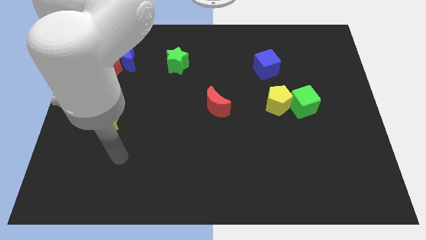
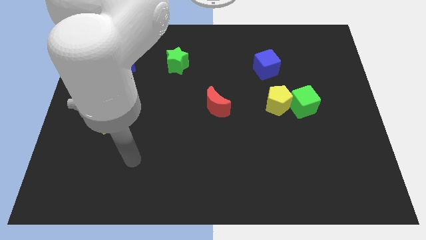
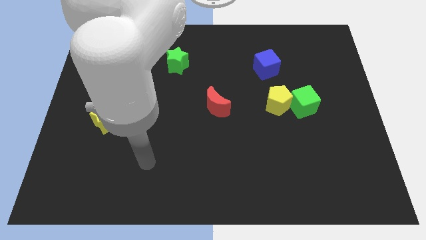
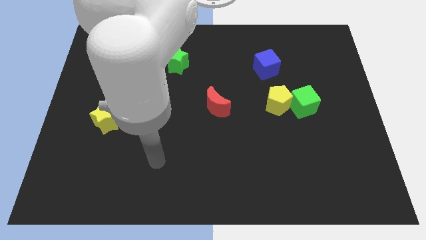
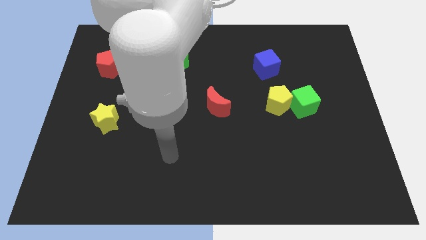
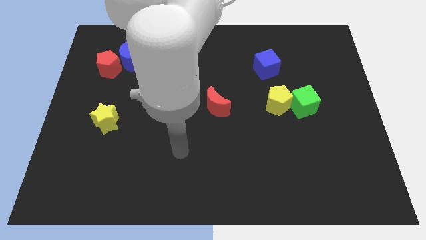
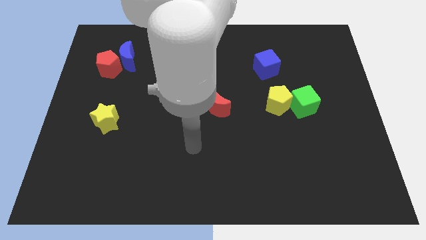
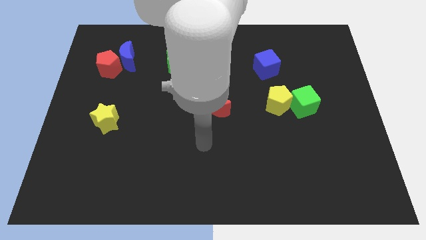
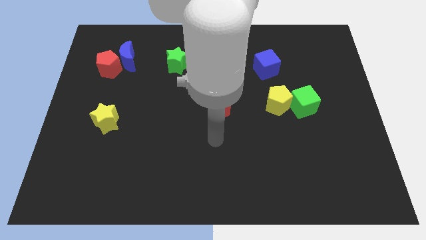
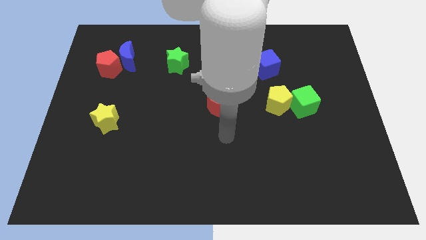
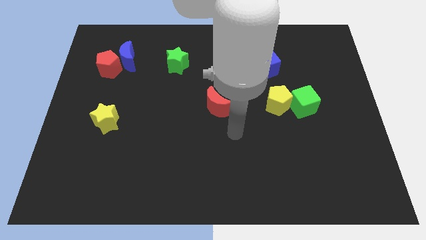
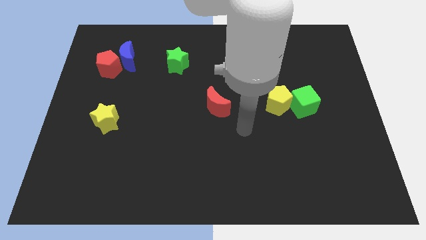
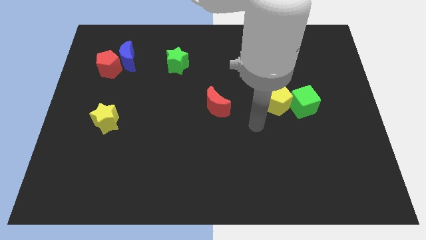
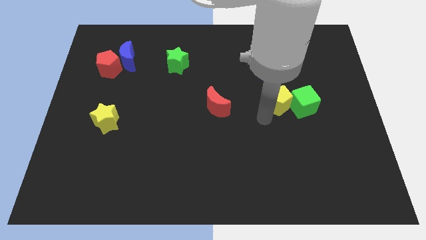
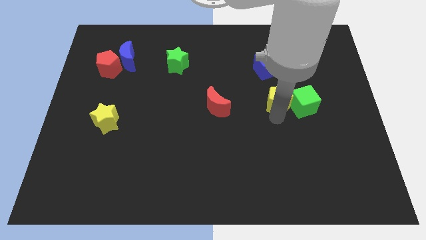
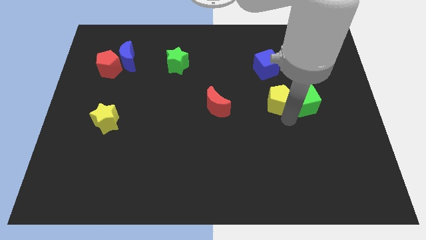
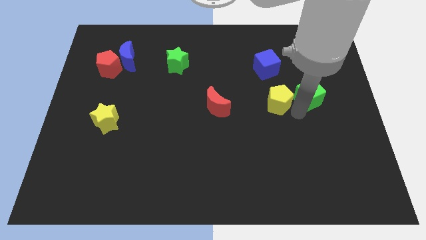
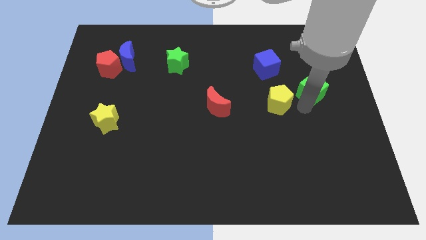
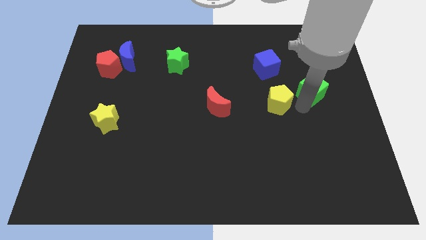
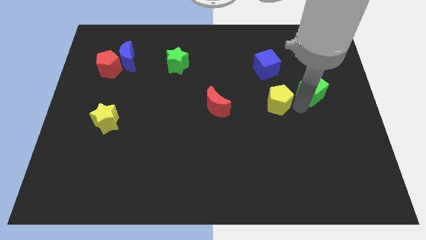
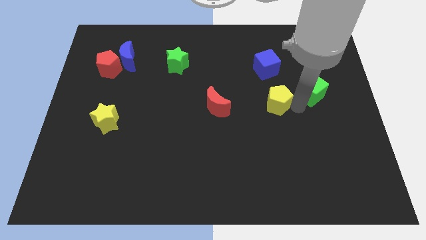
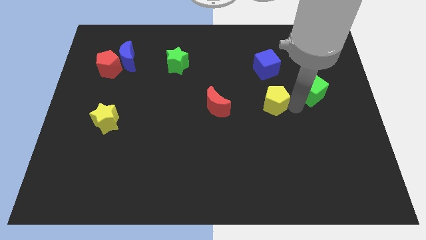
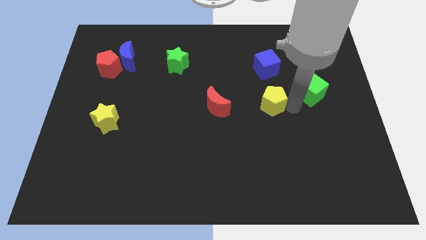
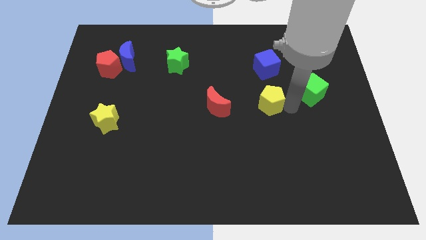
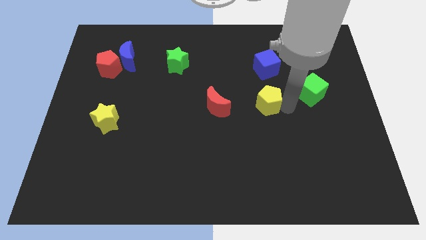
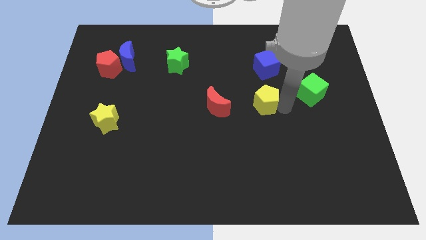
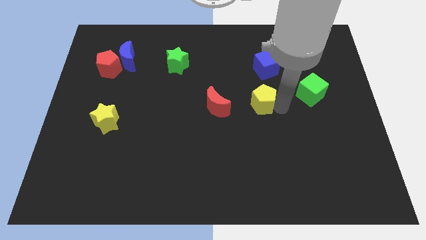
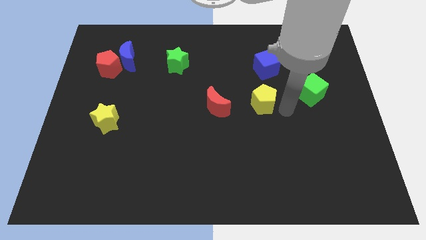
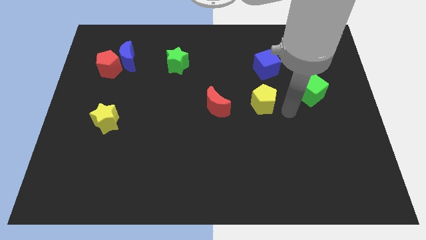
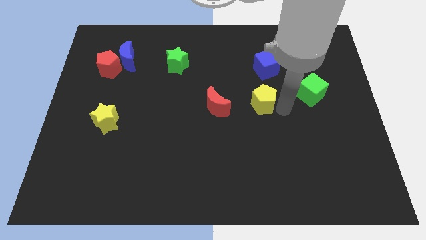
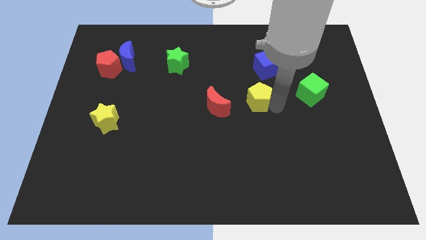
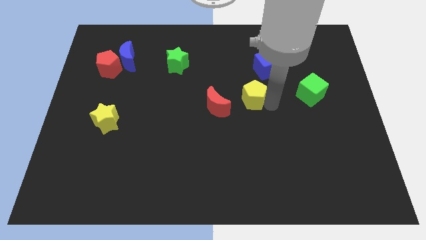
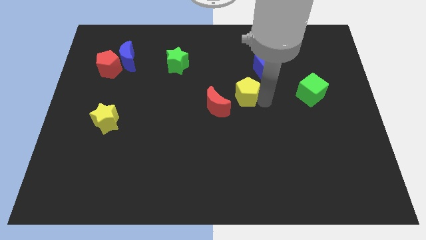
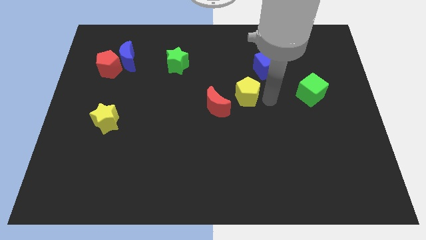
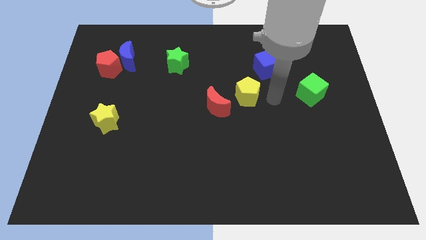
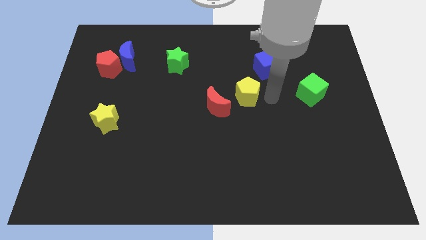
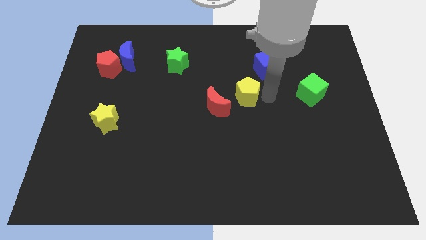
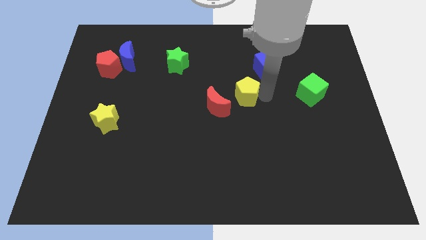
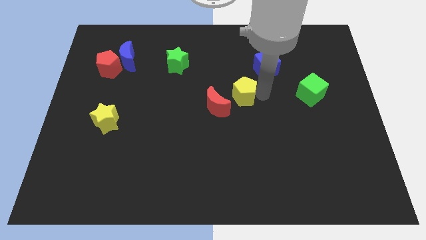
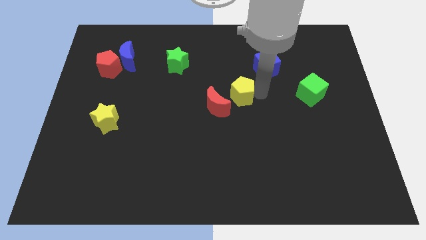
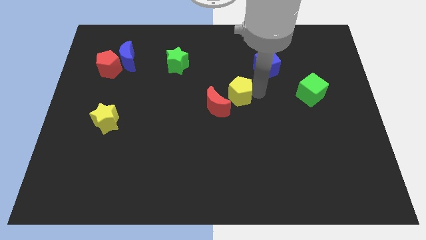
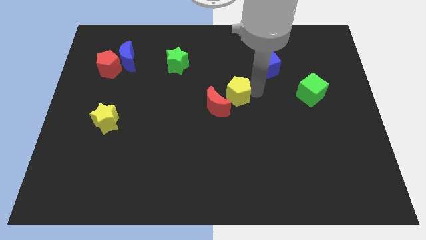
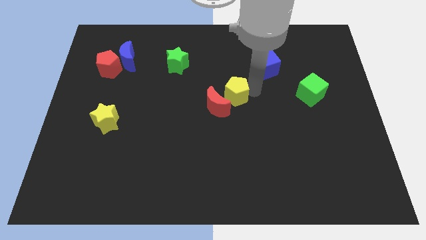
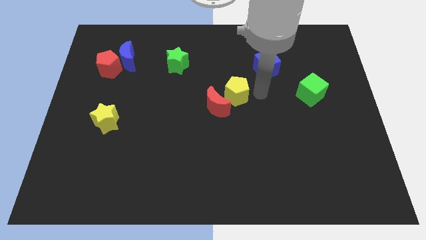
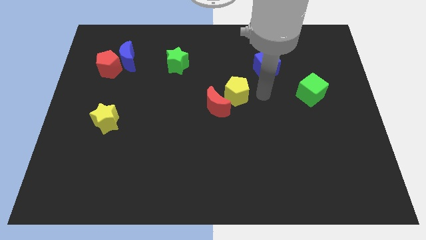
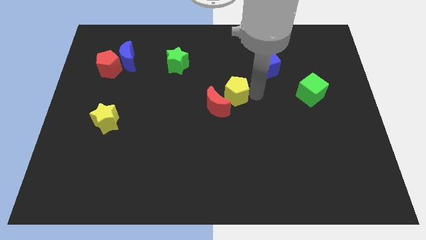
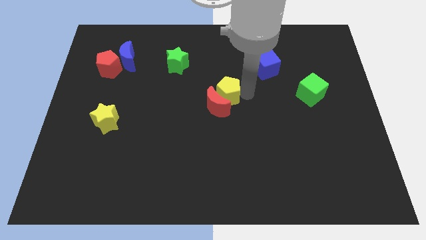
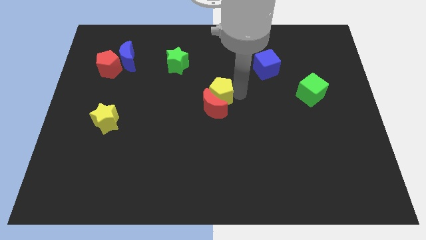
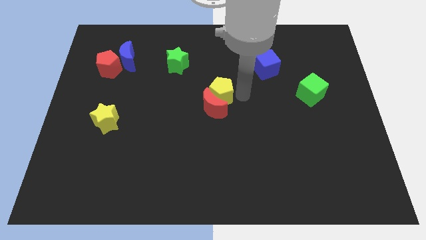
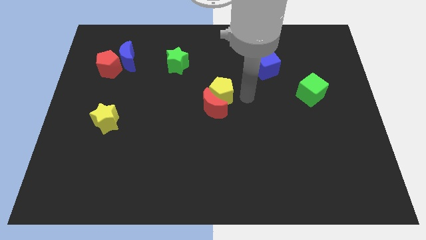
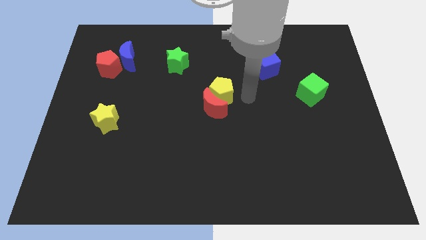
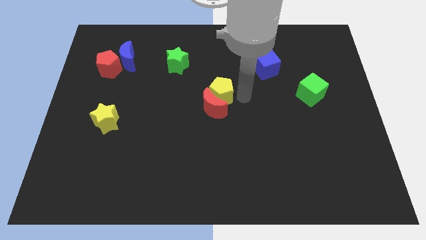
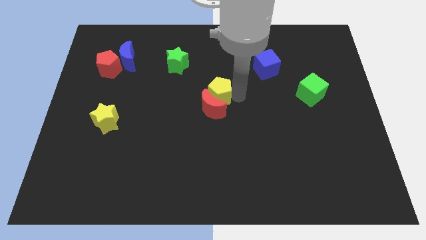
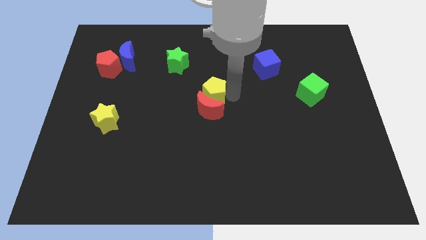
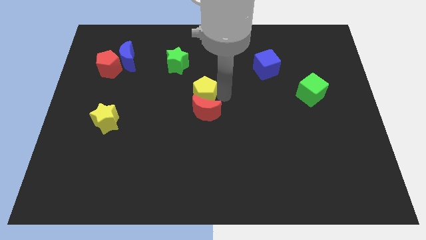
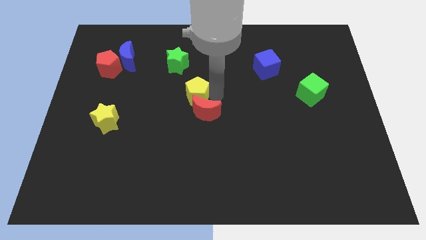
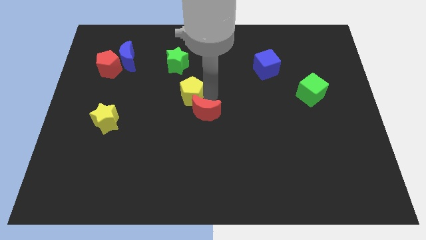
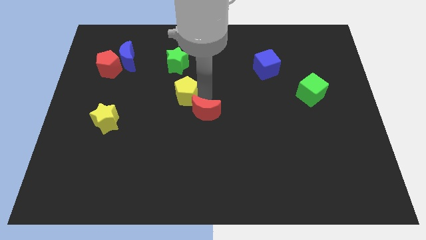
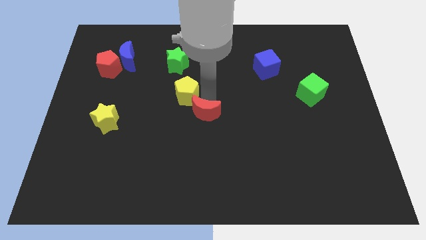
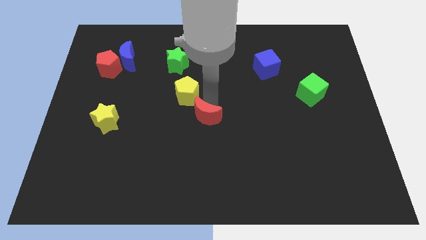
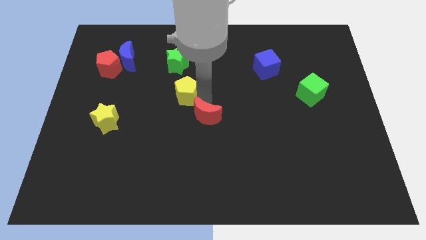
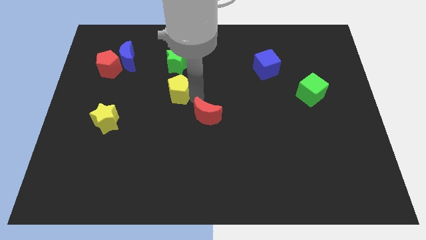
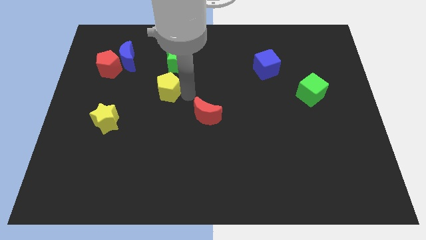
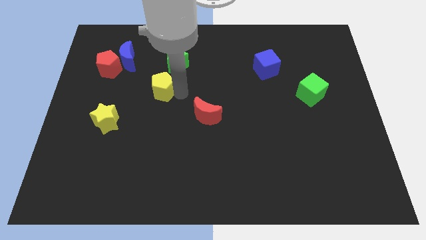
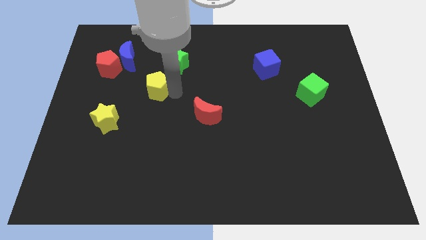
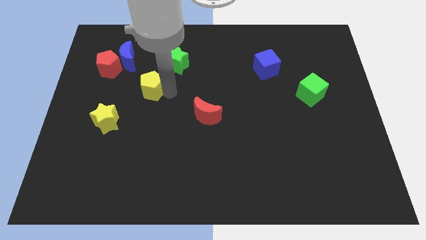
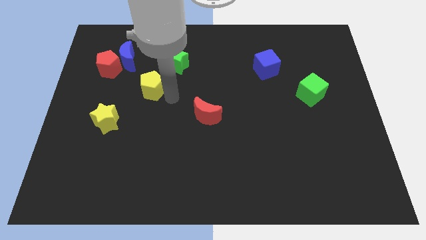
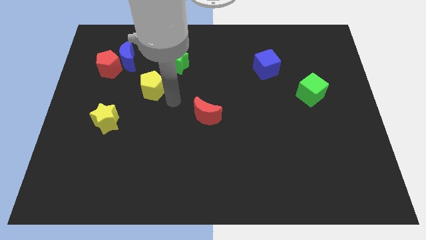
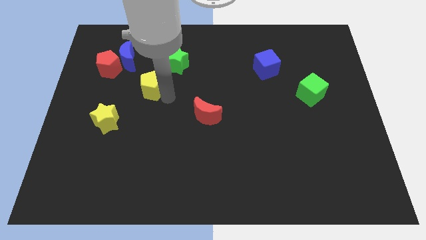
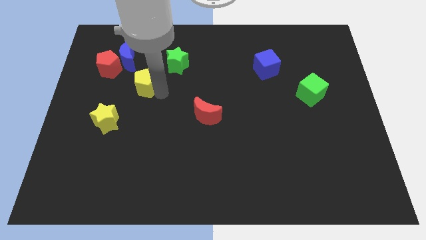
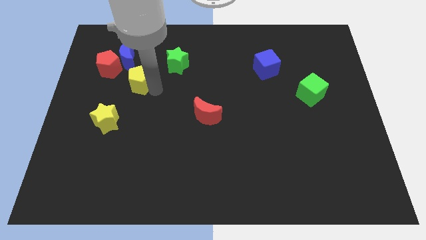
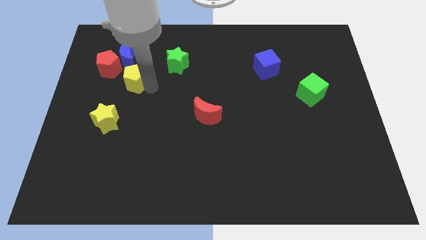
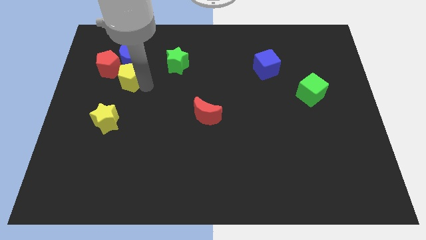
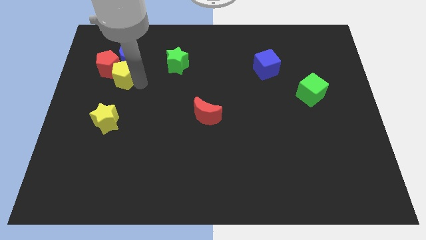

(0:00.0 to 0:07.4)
move the yellow pentagon to the red pentagon
